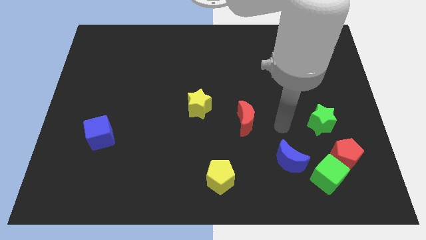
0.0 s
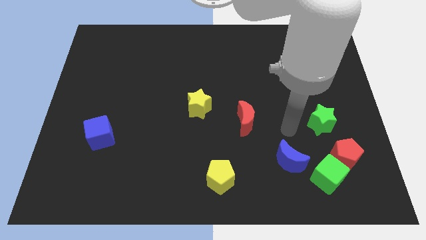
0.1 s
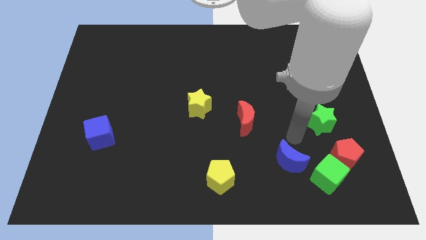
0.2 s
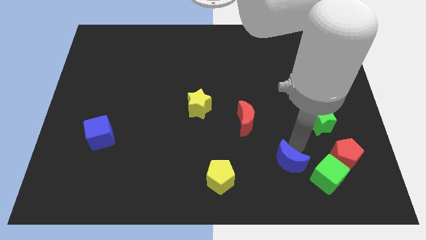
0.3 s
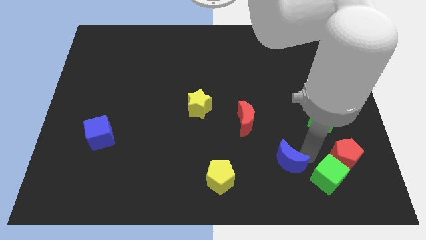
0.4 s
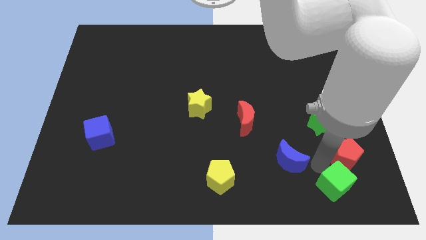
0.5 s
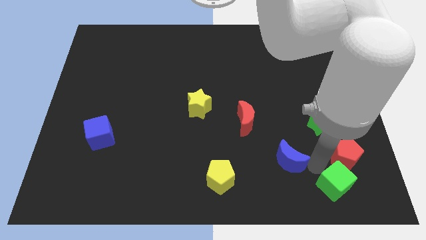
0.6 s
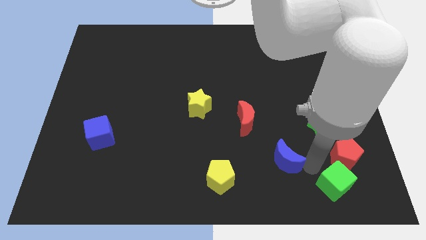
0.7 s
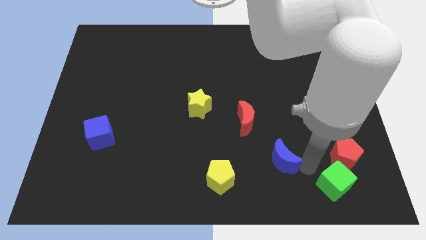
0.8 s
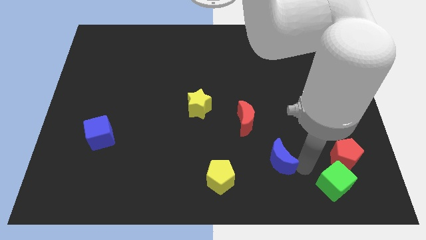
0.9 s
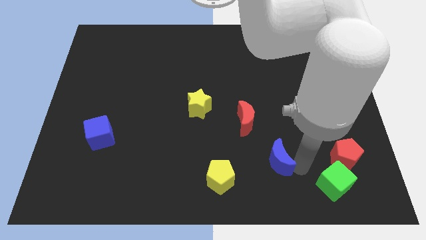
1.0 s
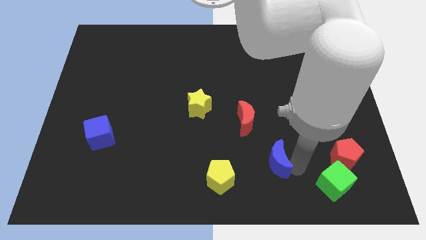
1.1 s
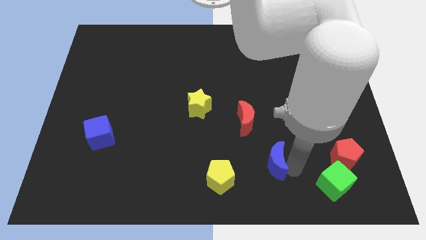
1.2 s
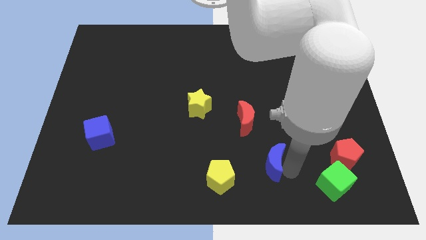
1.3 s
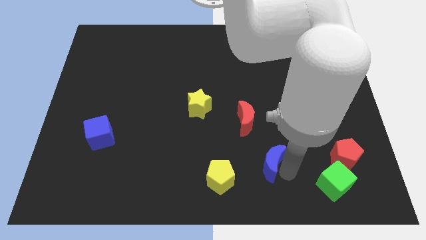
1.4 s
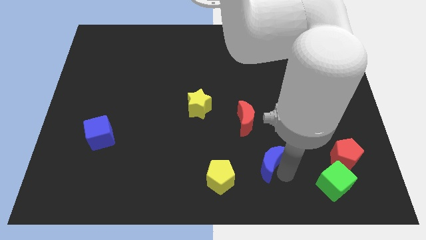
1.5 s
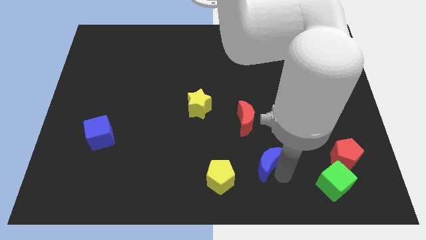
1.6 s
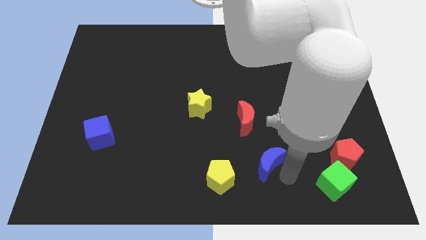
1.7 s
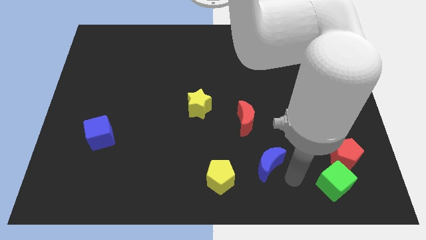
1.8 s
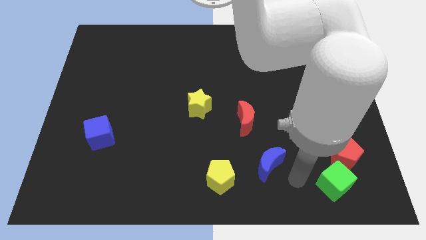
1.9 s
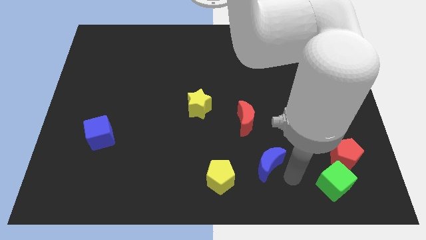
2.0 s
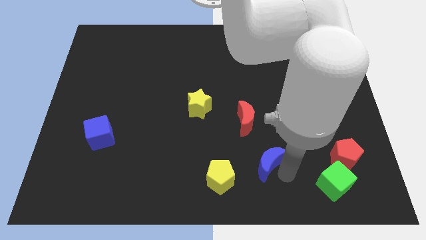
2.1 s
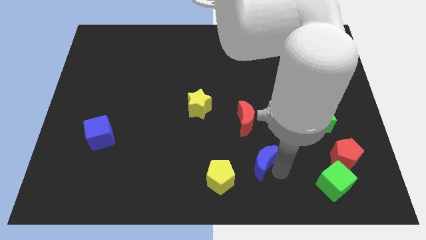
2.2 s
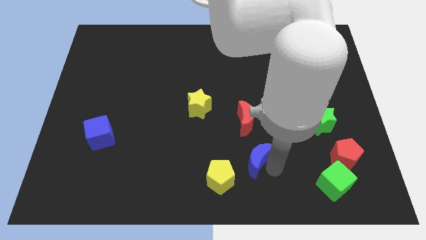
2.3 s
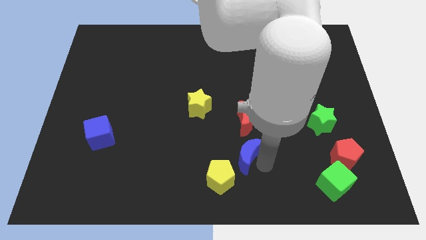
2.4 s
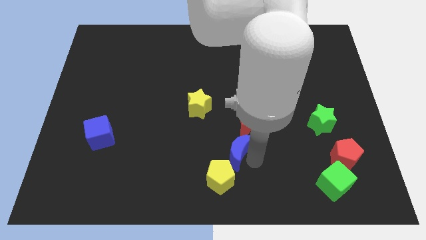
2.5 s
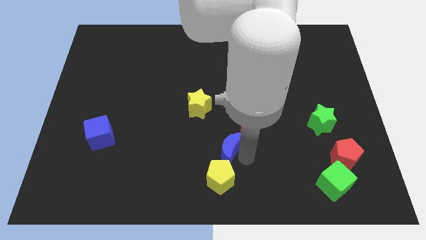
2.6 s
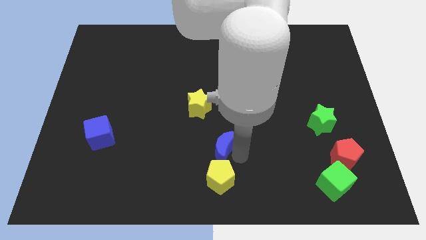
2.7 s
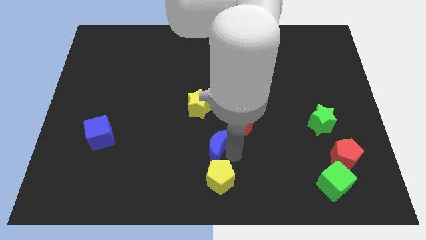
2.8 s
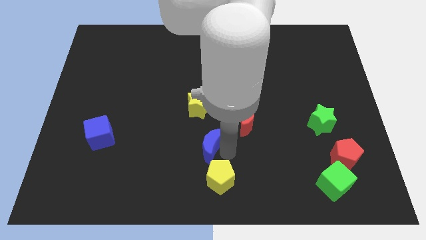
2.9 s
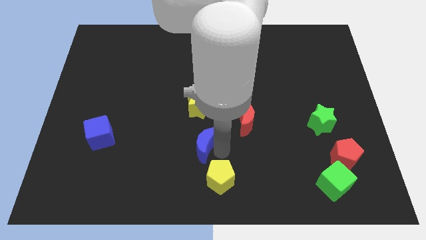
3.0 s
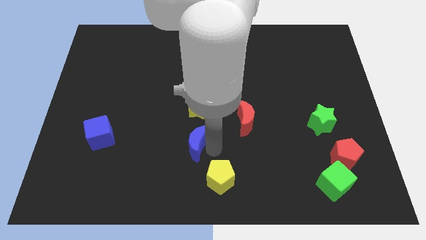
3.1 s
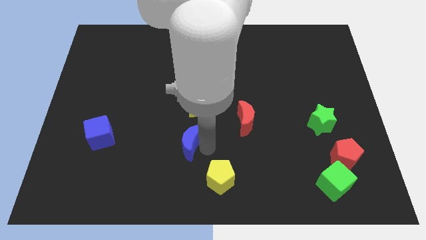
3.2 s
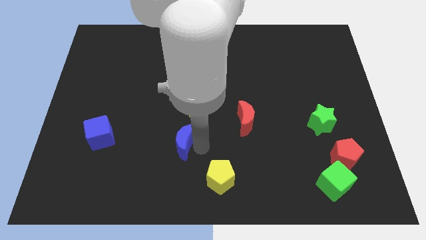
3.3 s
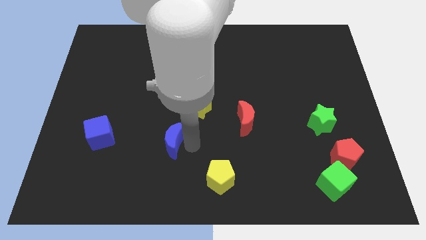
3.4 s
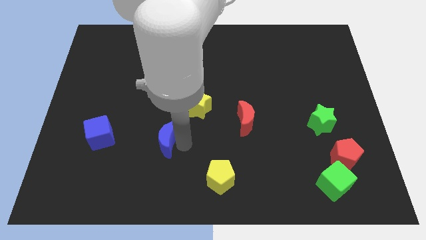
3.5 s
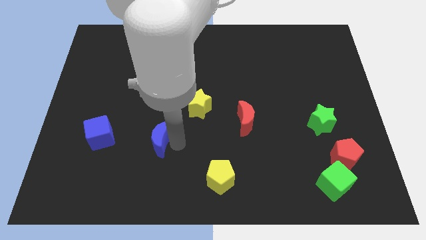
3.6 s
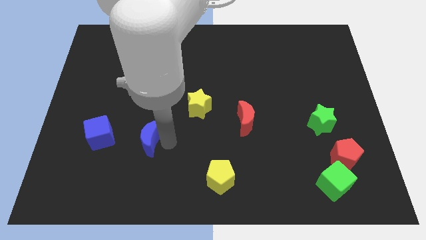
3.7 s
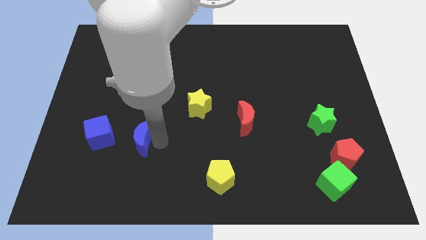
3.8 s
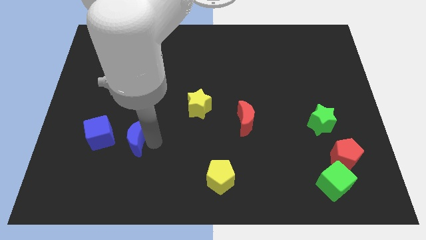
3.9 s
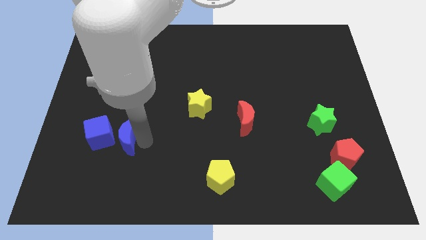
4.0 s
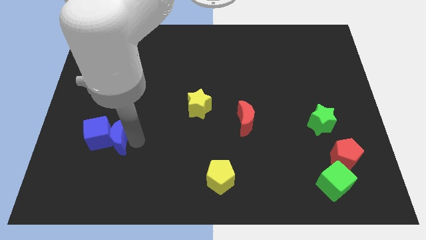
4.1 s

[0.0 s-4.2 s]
slide the blue moon to the blue cube

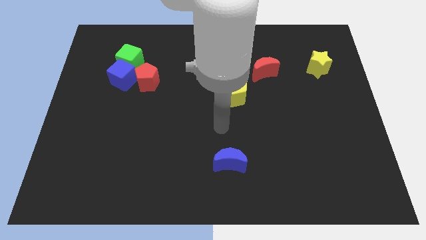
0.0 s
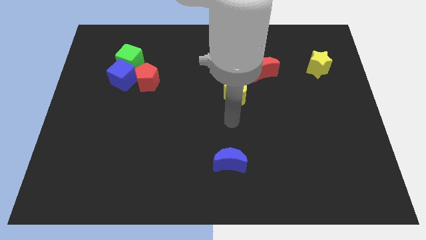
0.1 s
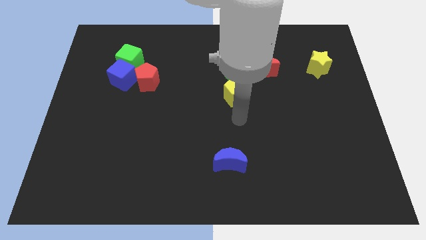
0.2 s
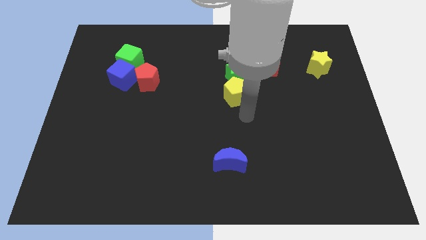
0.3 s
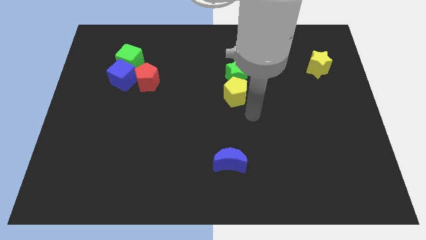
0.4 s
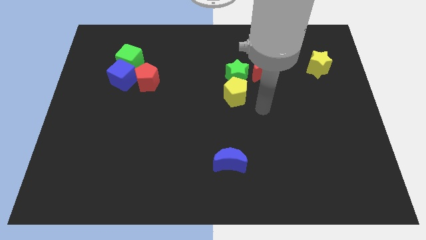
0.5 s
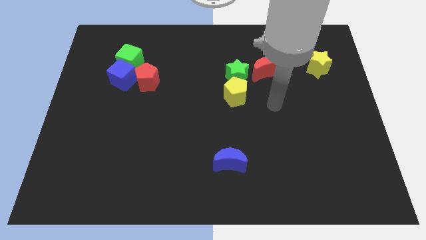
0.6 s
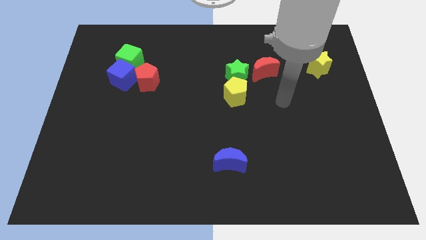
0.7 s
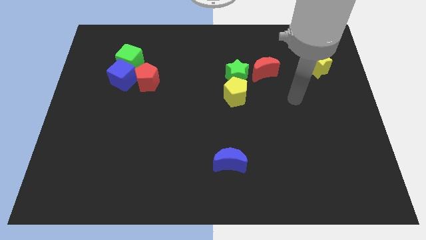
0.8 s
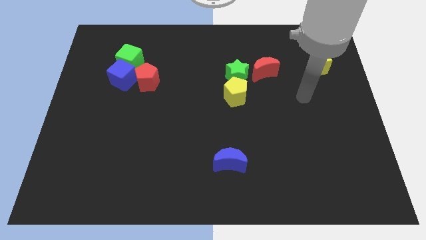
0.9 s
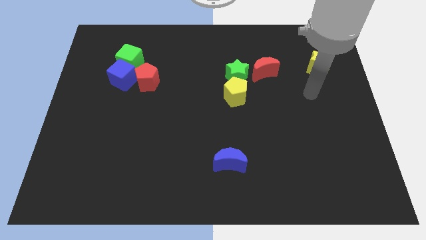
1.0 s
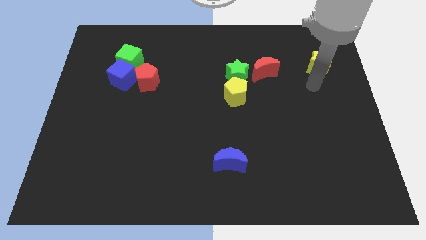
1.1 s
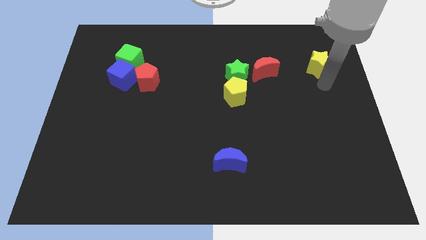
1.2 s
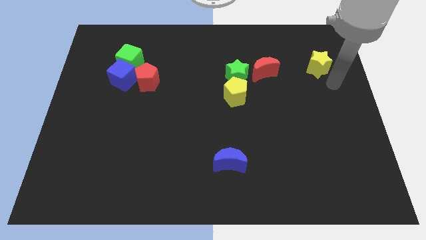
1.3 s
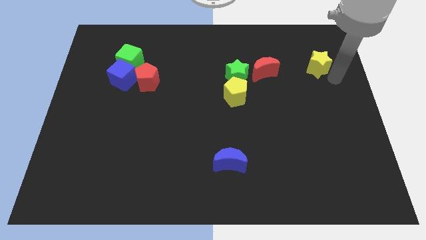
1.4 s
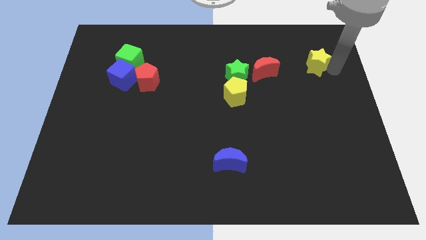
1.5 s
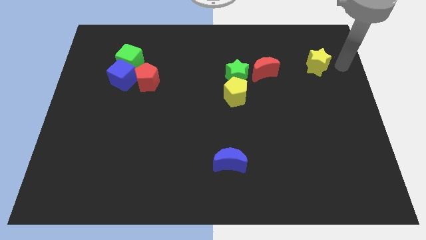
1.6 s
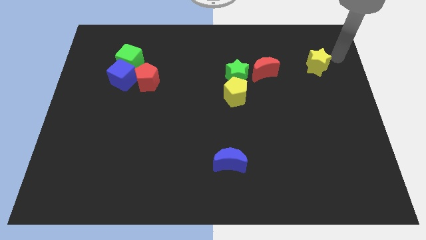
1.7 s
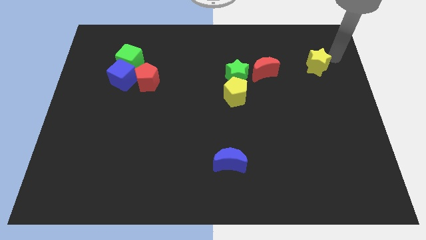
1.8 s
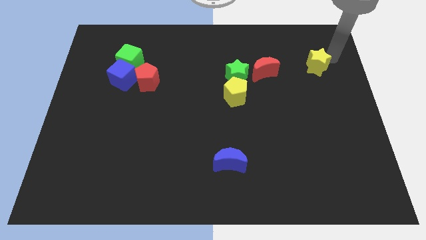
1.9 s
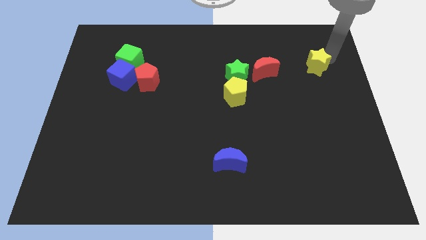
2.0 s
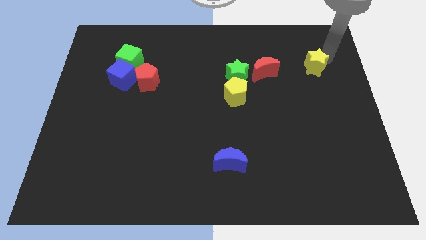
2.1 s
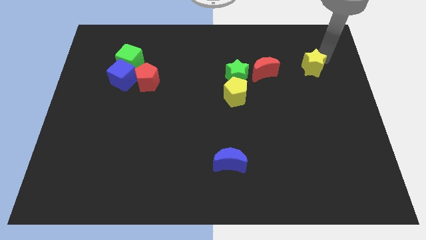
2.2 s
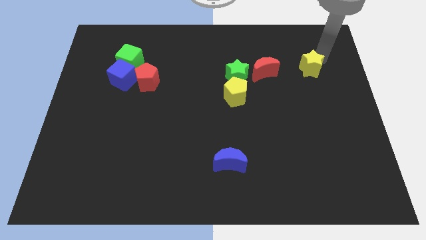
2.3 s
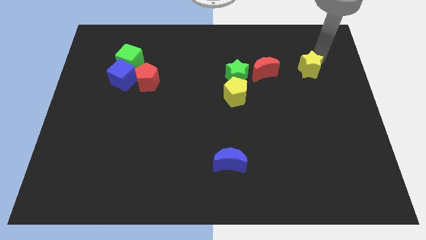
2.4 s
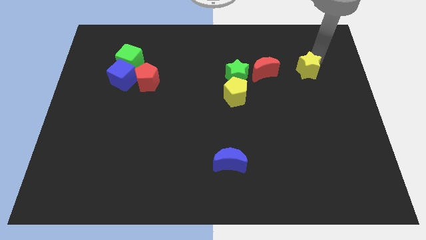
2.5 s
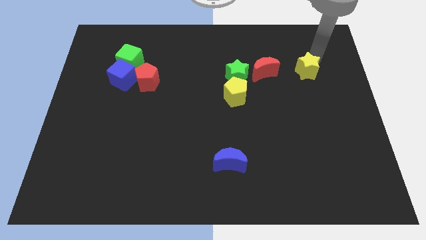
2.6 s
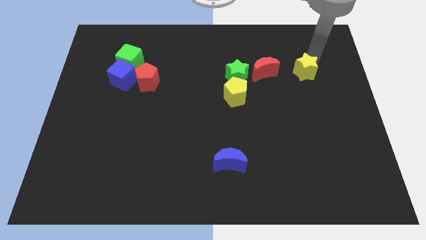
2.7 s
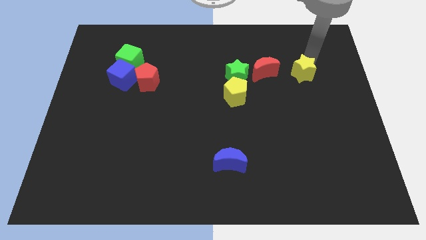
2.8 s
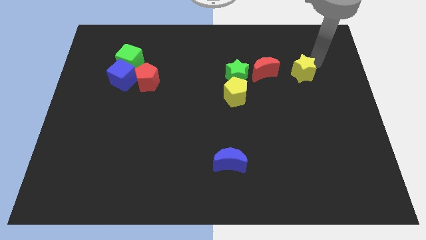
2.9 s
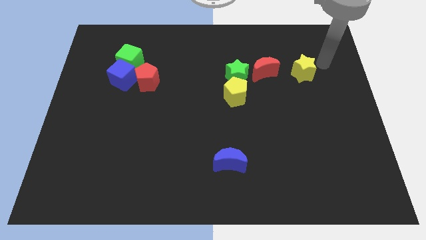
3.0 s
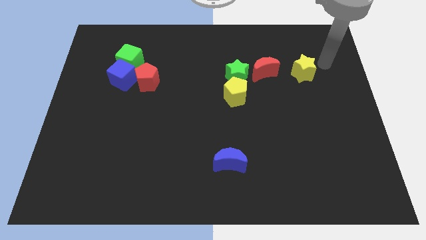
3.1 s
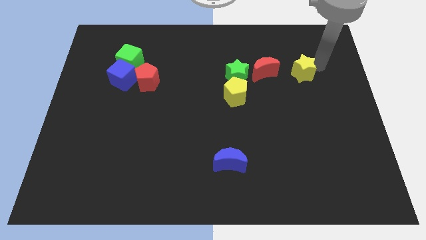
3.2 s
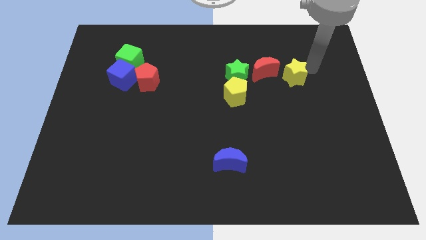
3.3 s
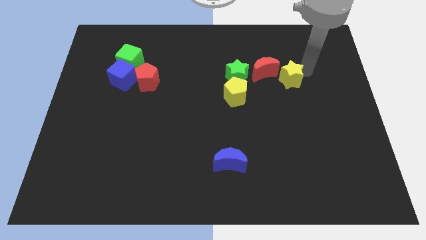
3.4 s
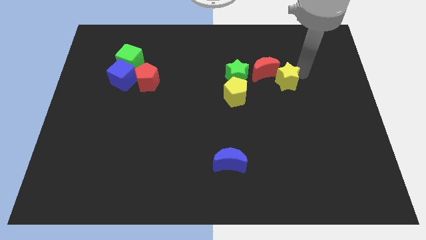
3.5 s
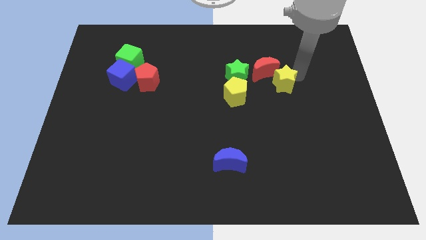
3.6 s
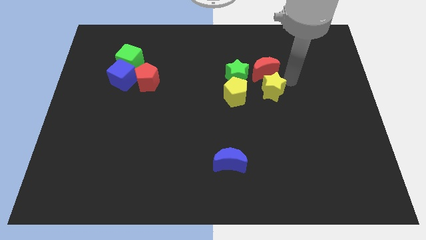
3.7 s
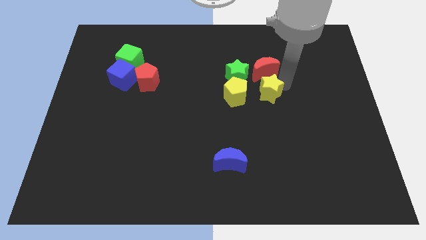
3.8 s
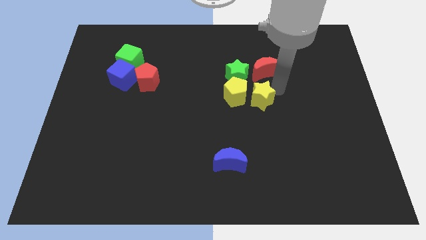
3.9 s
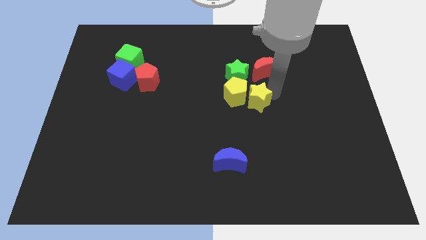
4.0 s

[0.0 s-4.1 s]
slide the yellow star close to the yellow pentagon
